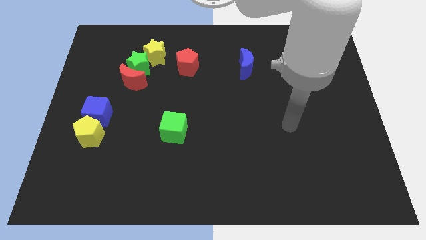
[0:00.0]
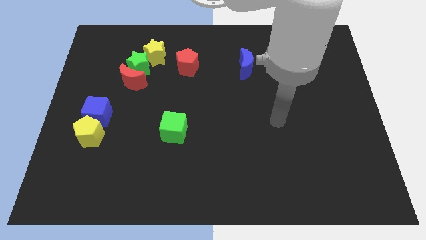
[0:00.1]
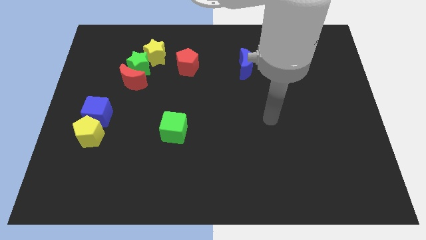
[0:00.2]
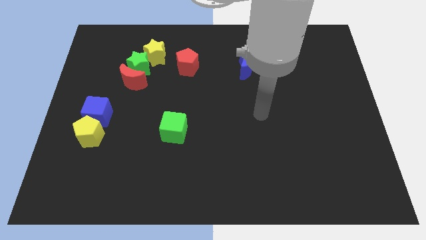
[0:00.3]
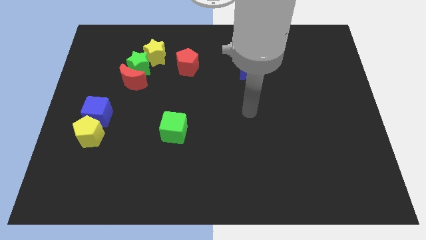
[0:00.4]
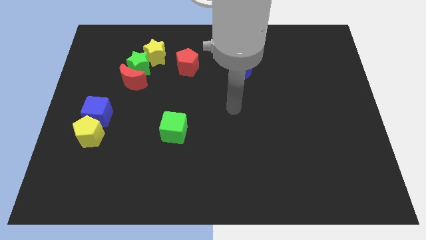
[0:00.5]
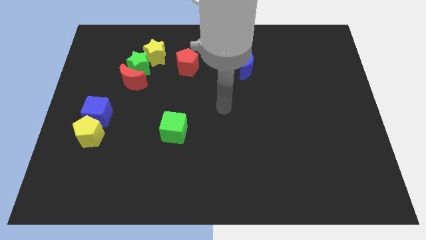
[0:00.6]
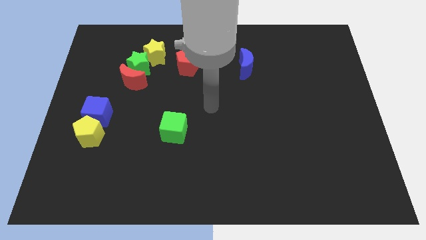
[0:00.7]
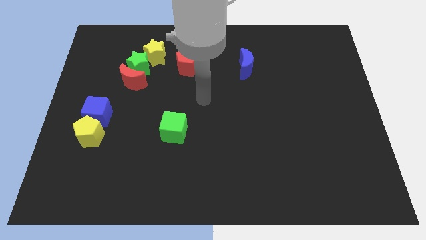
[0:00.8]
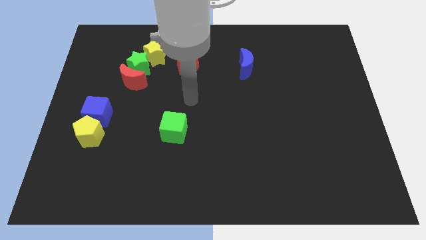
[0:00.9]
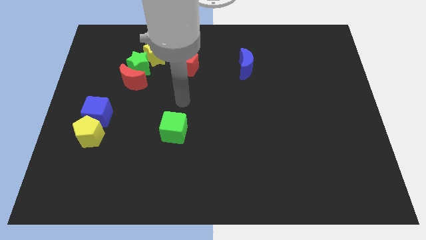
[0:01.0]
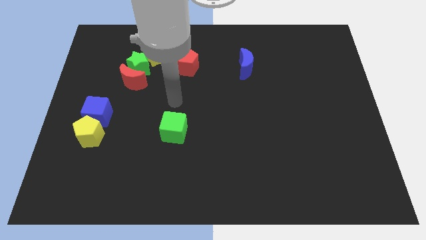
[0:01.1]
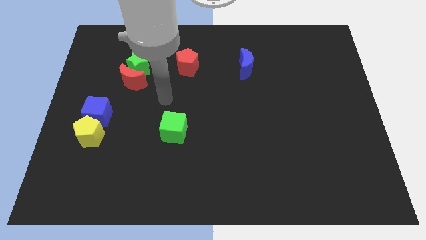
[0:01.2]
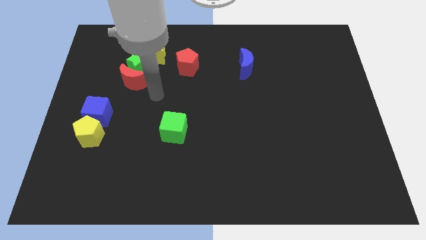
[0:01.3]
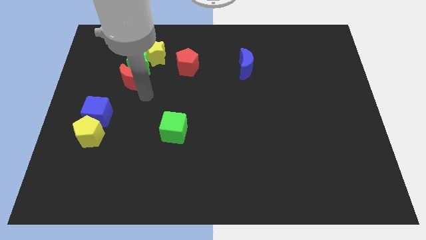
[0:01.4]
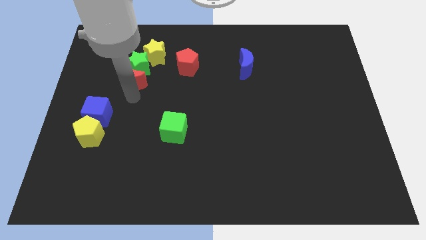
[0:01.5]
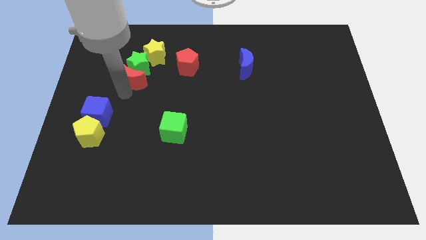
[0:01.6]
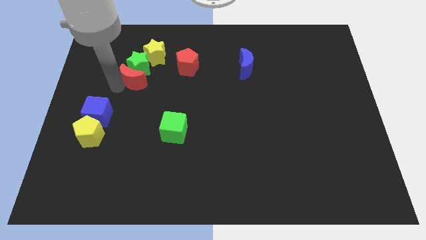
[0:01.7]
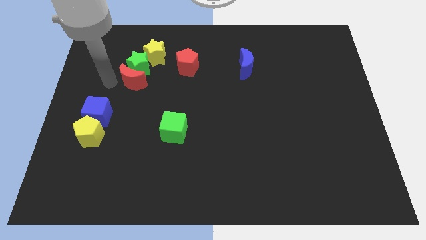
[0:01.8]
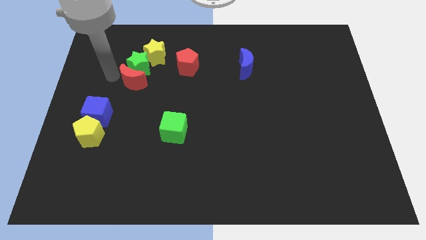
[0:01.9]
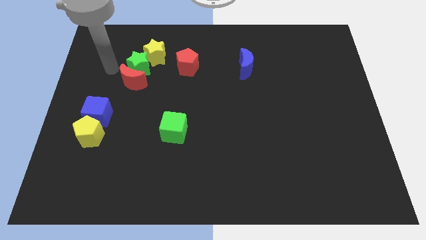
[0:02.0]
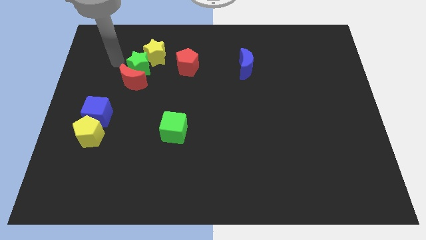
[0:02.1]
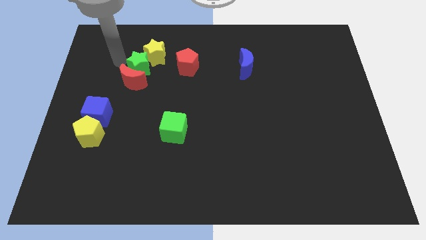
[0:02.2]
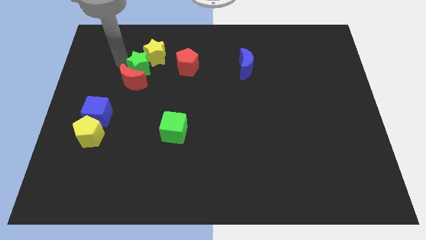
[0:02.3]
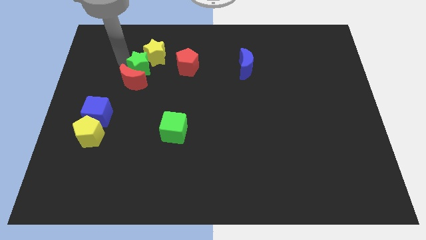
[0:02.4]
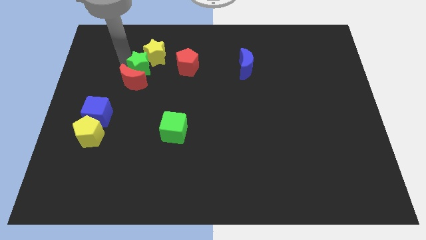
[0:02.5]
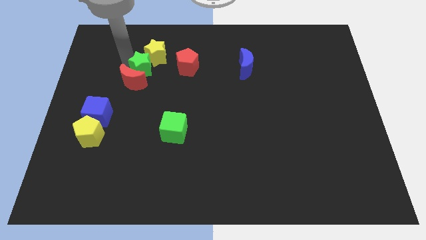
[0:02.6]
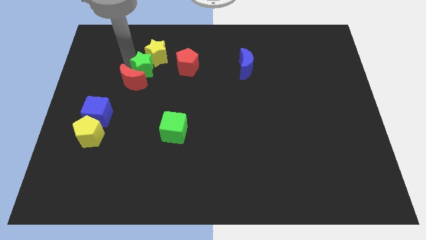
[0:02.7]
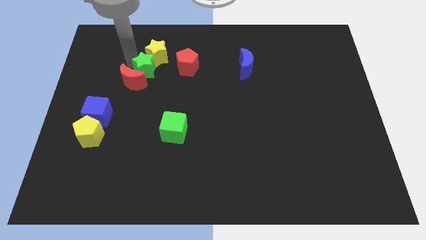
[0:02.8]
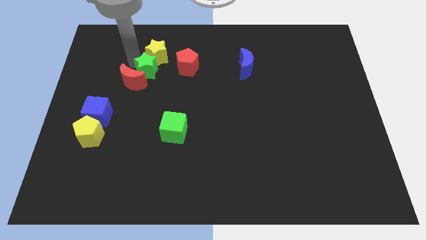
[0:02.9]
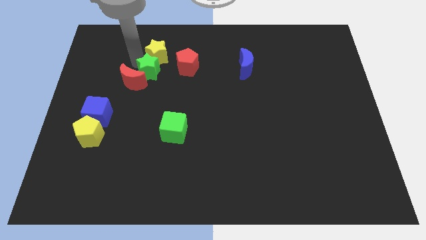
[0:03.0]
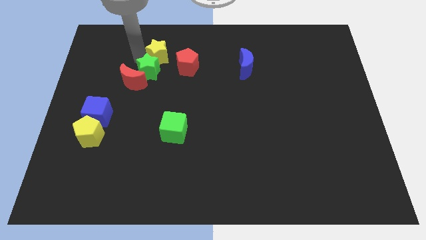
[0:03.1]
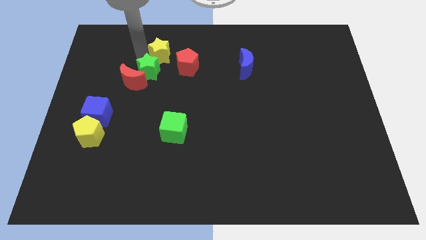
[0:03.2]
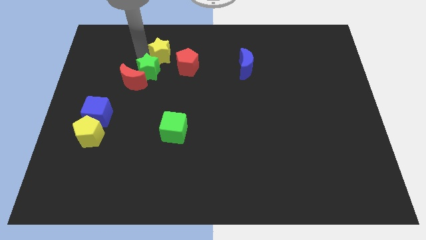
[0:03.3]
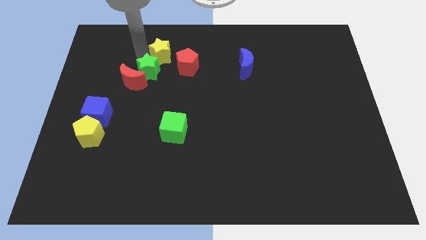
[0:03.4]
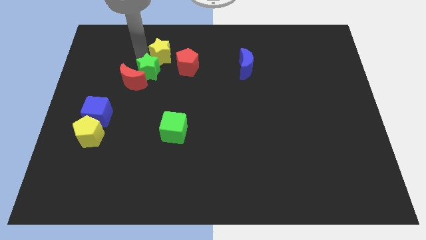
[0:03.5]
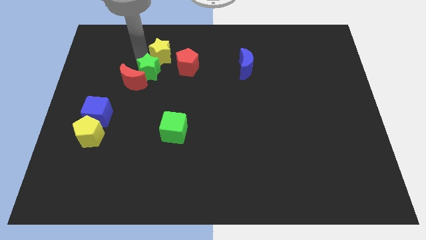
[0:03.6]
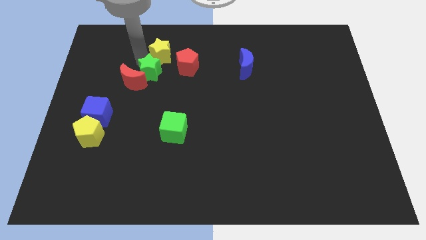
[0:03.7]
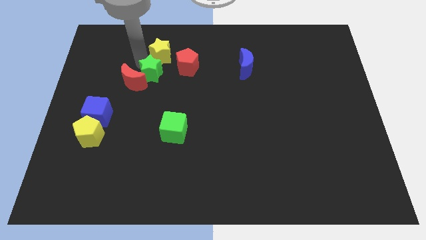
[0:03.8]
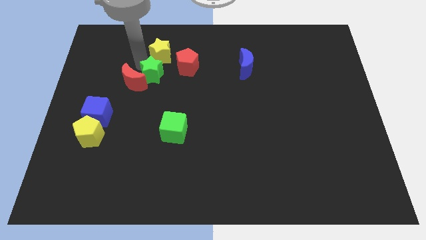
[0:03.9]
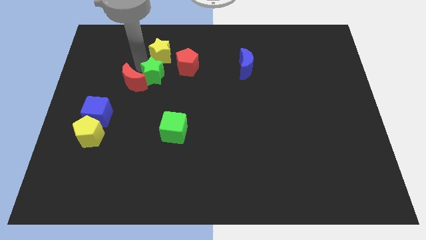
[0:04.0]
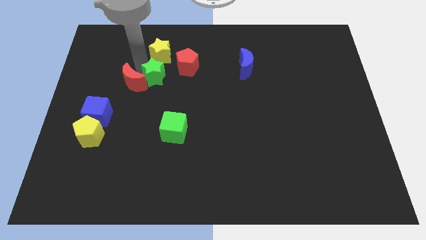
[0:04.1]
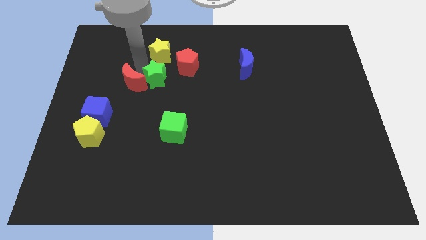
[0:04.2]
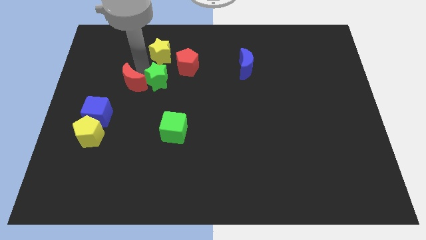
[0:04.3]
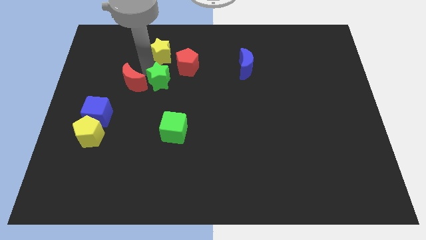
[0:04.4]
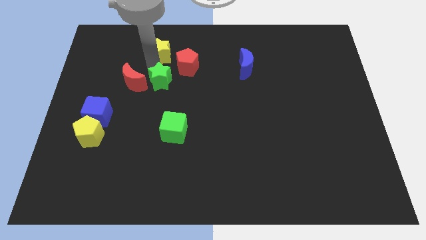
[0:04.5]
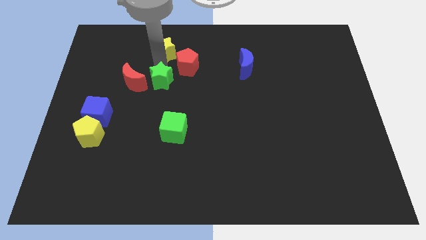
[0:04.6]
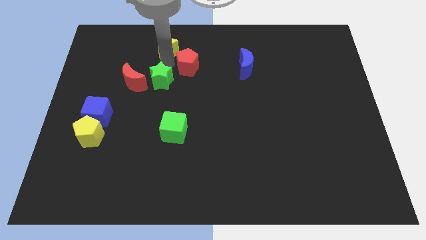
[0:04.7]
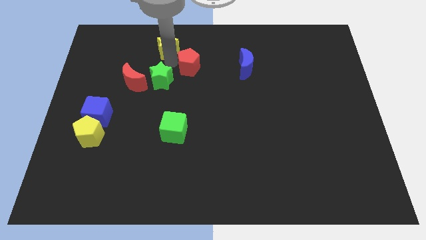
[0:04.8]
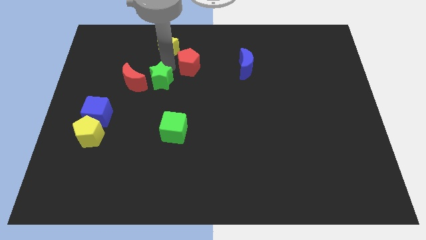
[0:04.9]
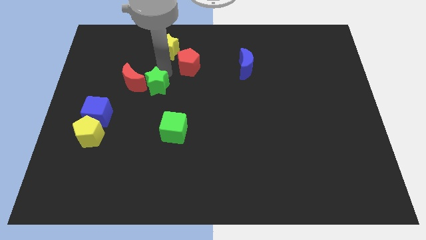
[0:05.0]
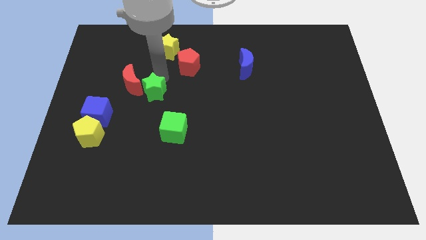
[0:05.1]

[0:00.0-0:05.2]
slightly push the green star down

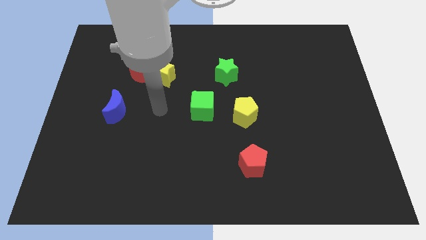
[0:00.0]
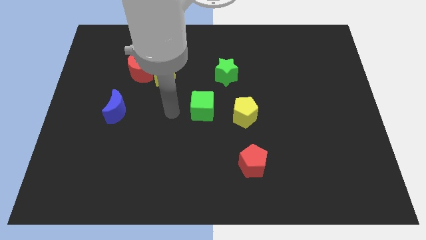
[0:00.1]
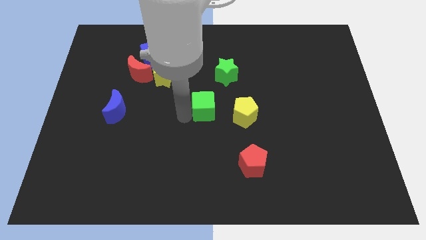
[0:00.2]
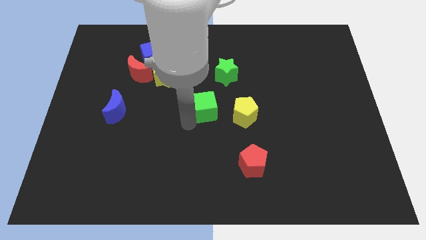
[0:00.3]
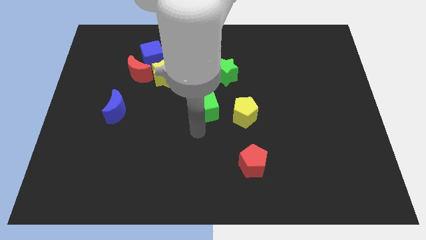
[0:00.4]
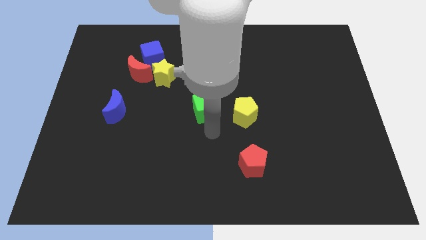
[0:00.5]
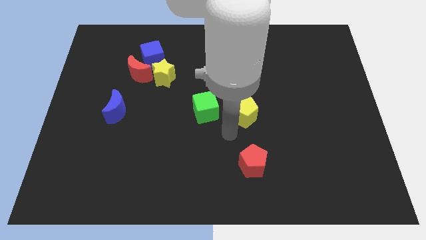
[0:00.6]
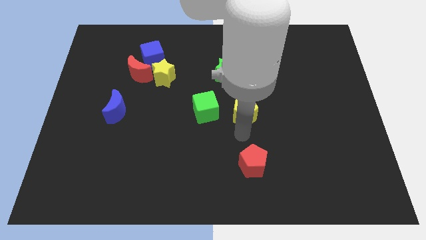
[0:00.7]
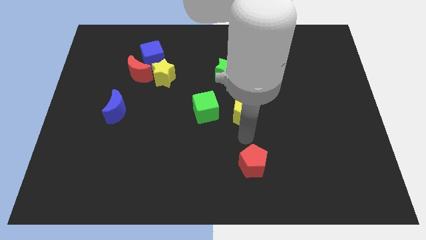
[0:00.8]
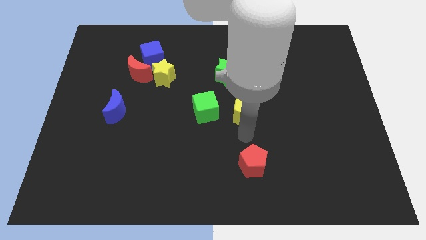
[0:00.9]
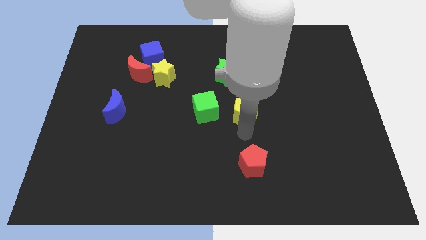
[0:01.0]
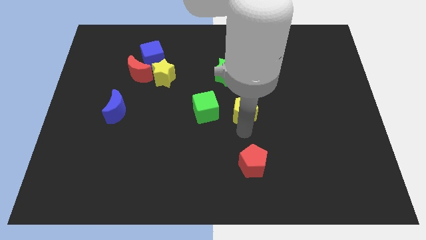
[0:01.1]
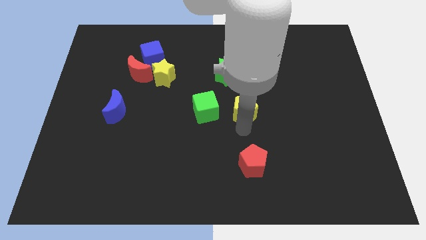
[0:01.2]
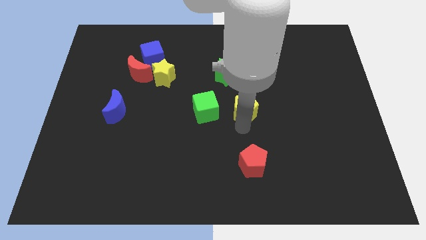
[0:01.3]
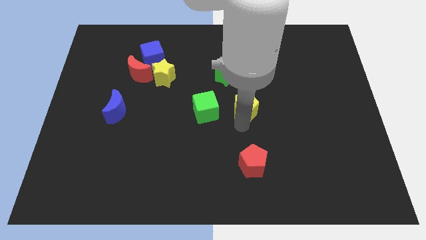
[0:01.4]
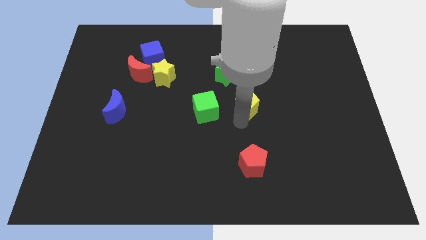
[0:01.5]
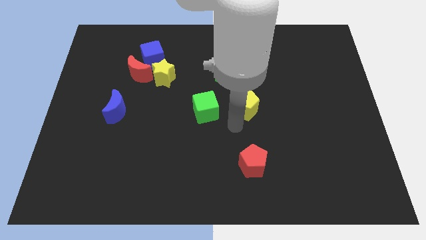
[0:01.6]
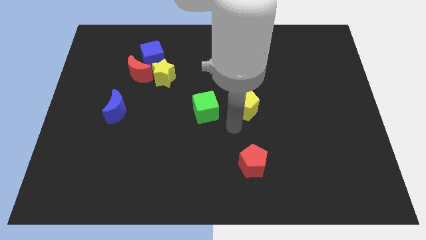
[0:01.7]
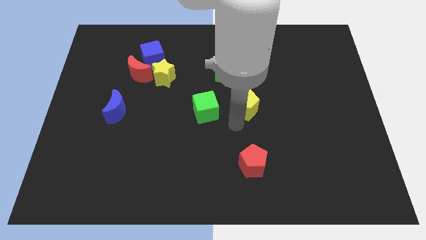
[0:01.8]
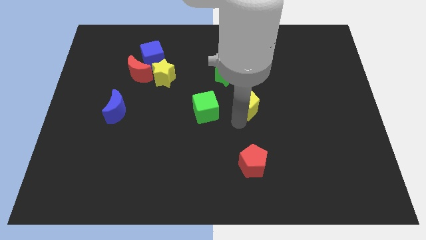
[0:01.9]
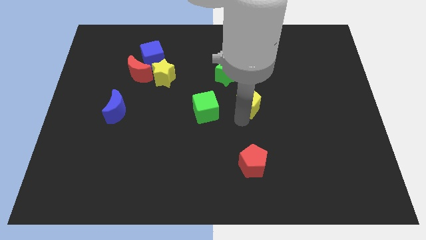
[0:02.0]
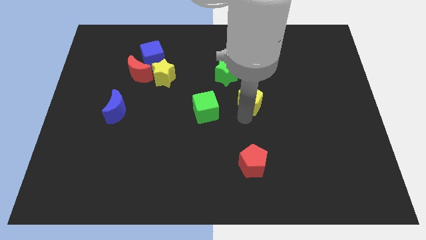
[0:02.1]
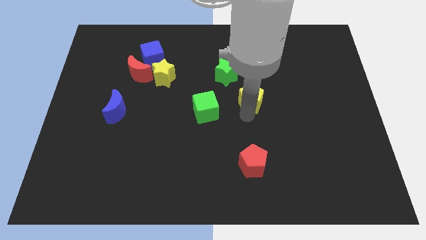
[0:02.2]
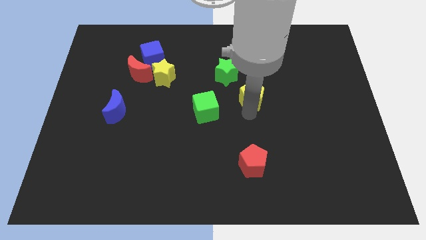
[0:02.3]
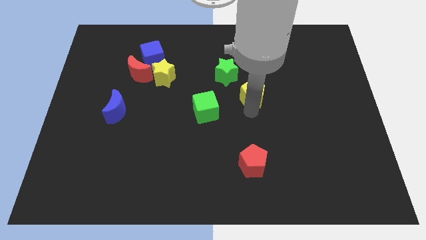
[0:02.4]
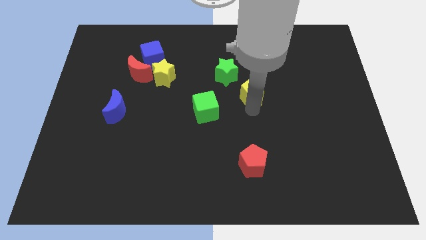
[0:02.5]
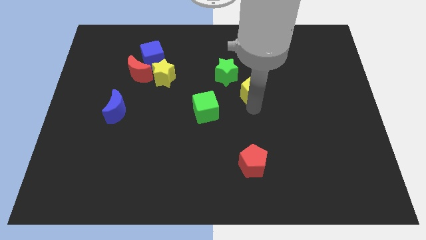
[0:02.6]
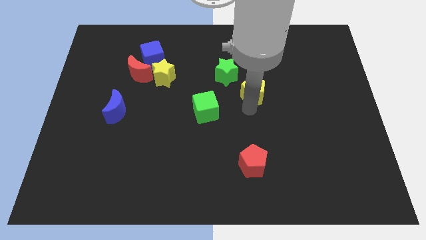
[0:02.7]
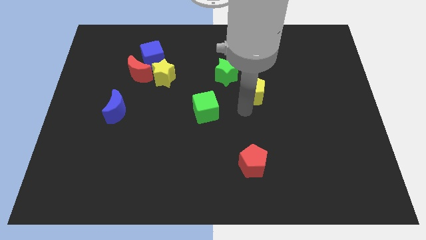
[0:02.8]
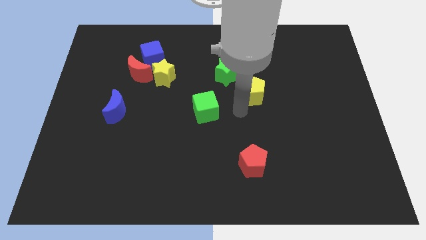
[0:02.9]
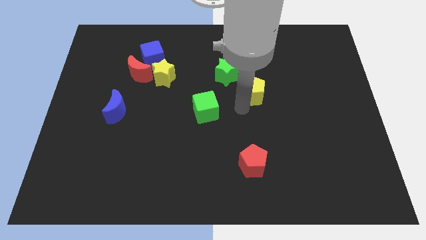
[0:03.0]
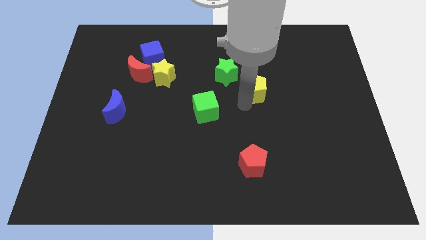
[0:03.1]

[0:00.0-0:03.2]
push the yellow pentagon somewhat upwards
